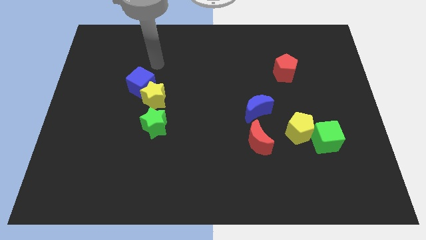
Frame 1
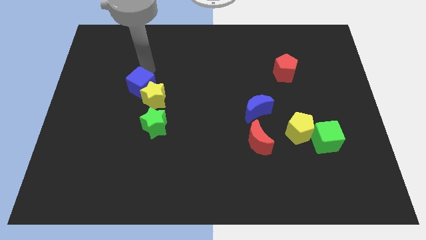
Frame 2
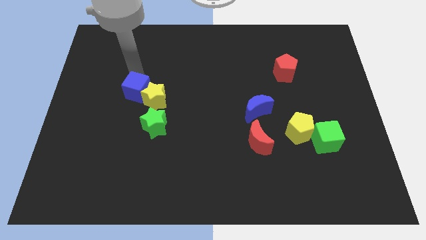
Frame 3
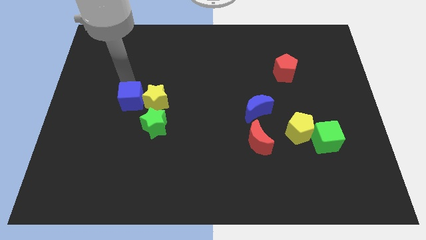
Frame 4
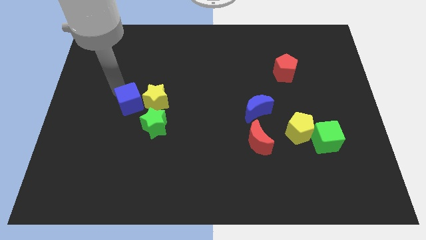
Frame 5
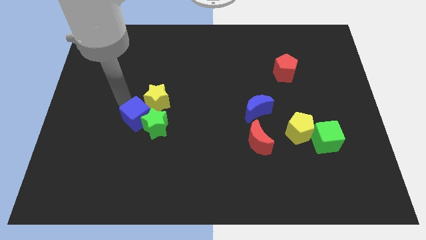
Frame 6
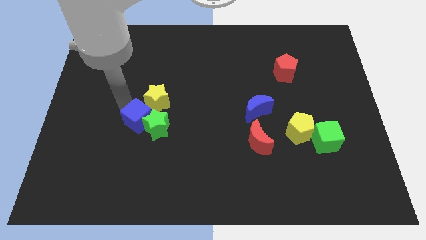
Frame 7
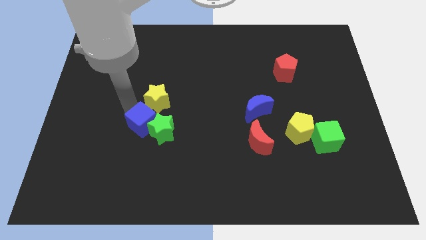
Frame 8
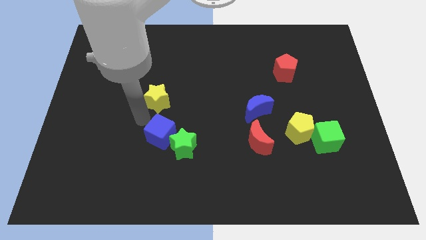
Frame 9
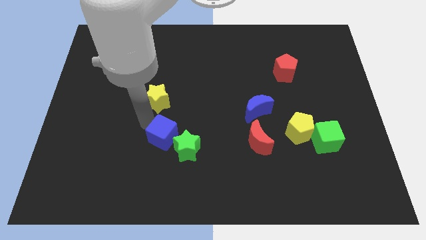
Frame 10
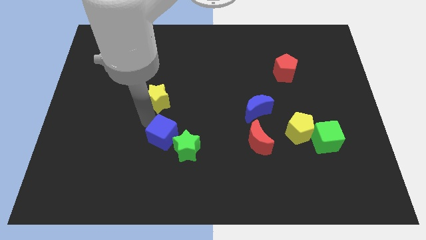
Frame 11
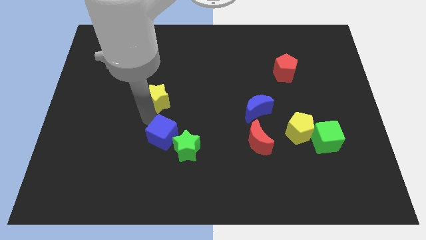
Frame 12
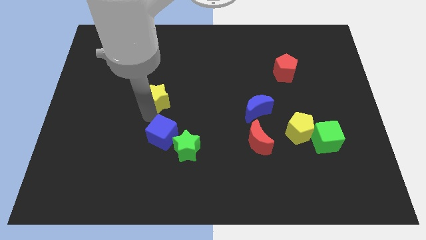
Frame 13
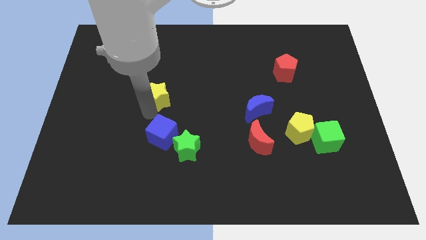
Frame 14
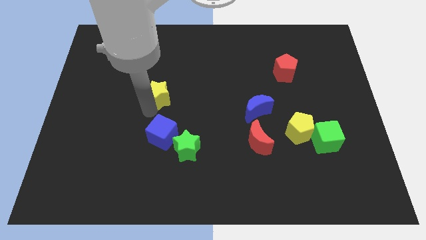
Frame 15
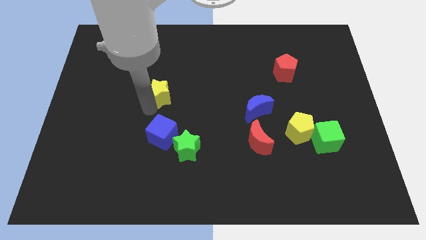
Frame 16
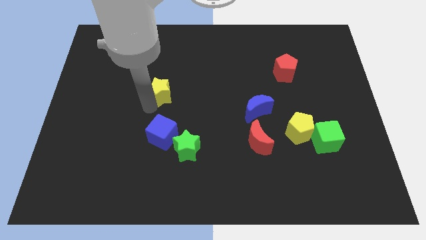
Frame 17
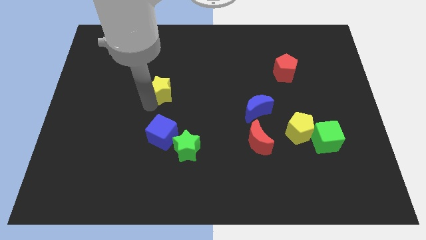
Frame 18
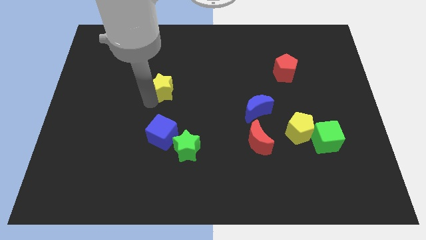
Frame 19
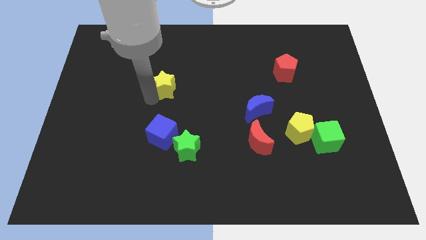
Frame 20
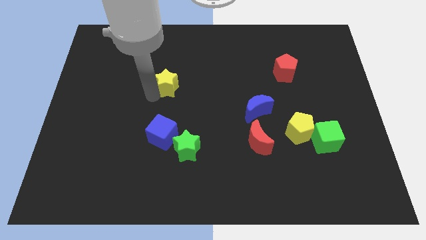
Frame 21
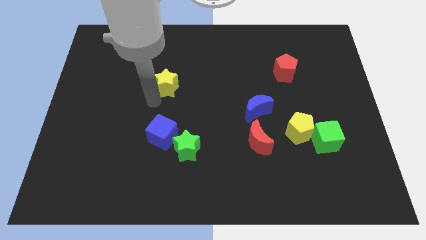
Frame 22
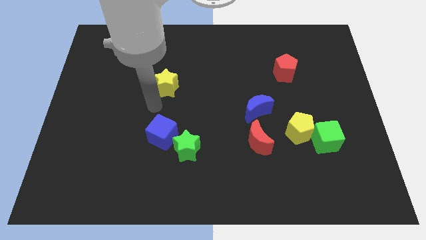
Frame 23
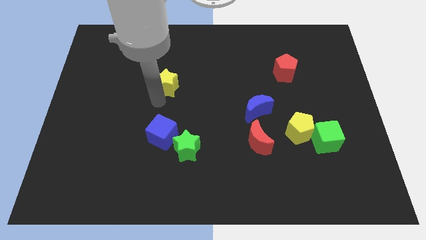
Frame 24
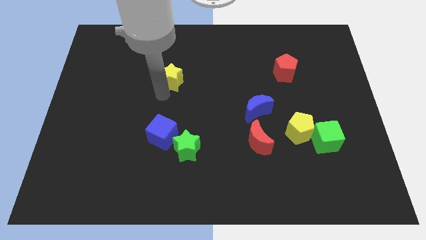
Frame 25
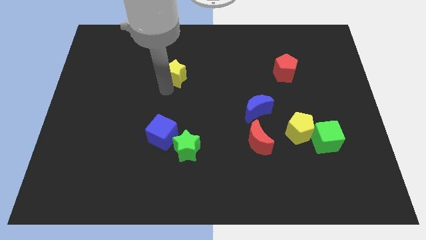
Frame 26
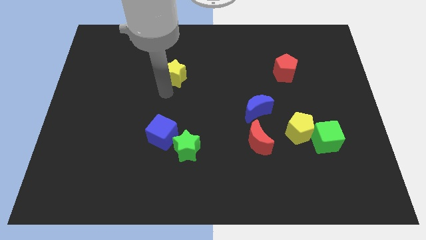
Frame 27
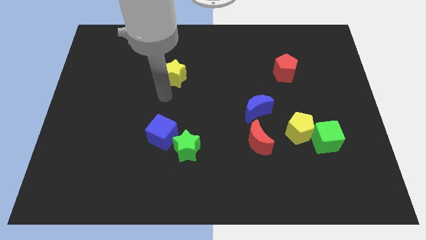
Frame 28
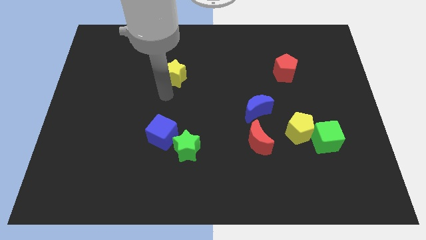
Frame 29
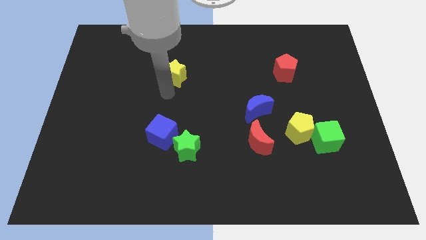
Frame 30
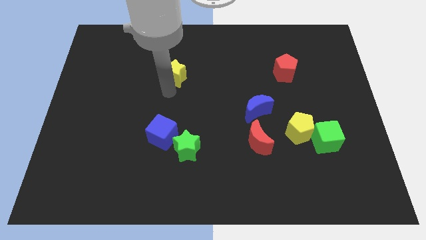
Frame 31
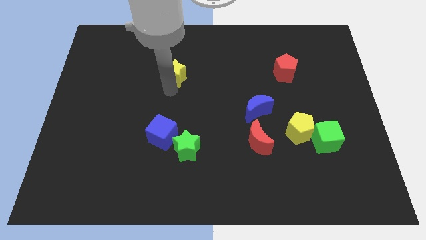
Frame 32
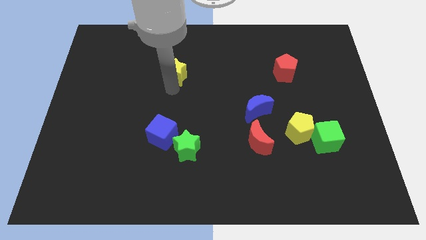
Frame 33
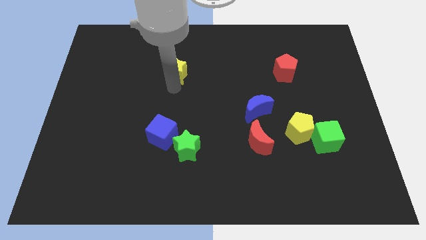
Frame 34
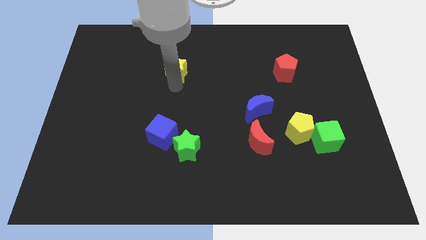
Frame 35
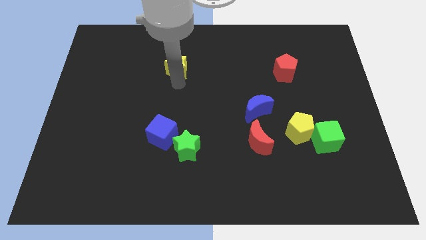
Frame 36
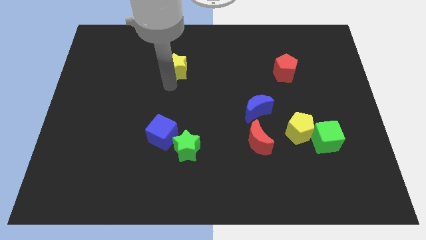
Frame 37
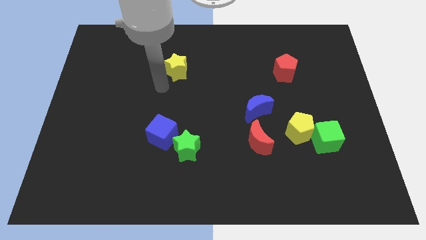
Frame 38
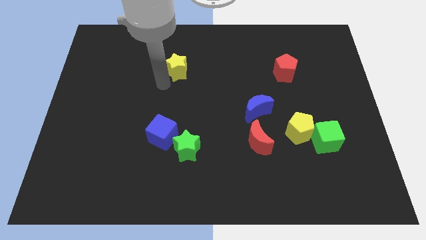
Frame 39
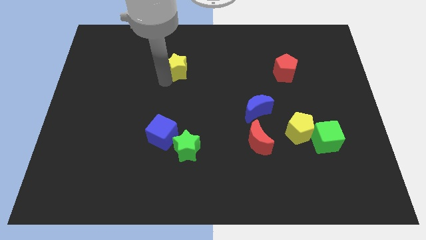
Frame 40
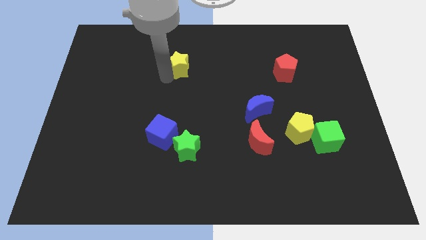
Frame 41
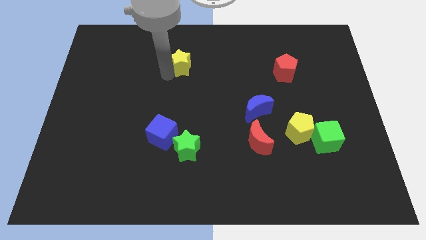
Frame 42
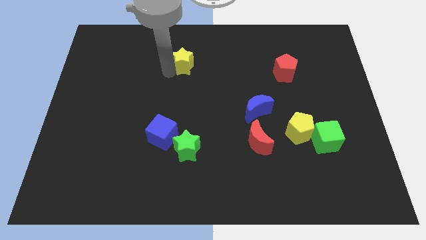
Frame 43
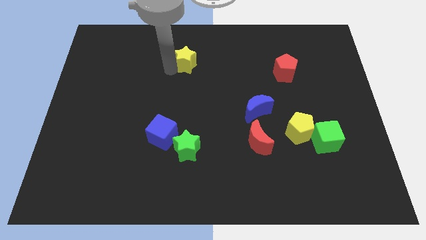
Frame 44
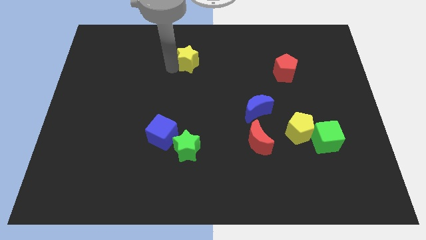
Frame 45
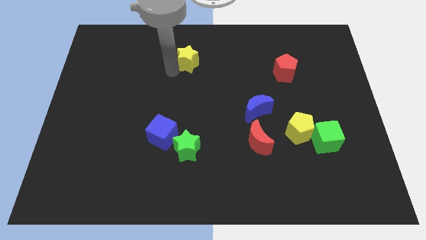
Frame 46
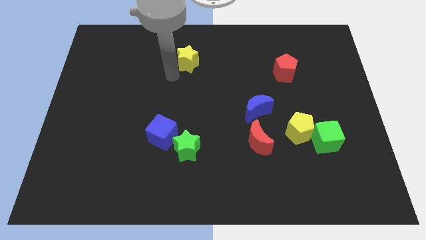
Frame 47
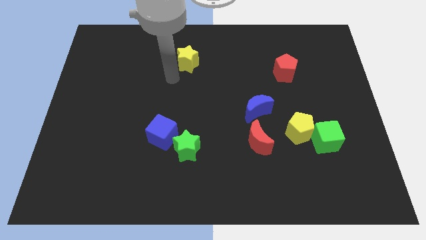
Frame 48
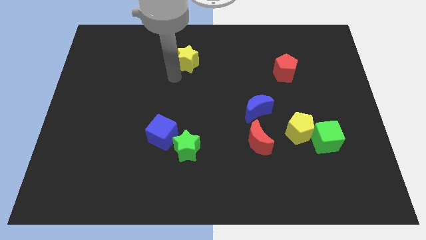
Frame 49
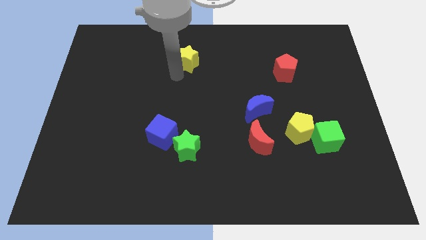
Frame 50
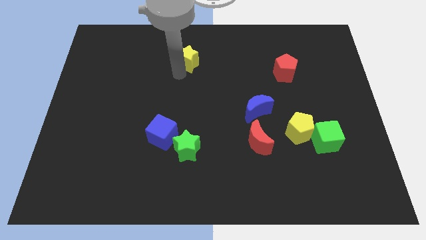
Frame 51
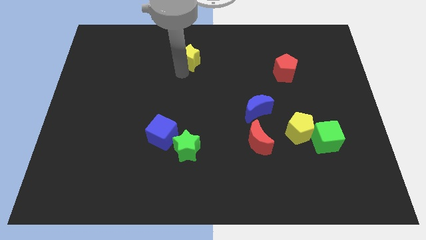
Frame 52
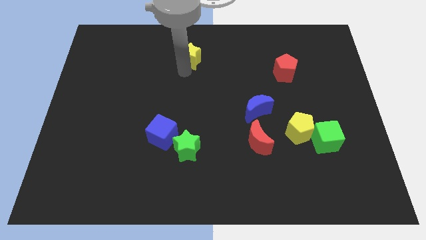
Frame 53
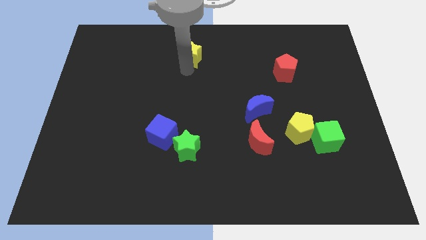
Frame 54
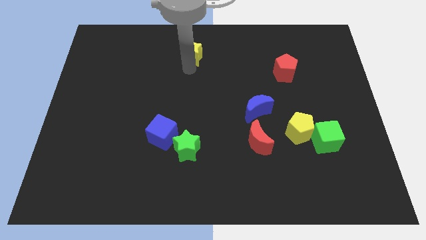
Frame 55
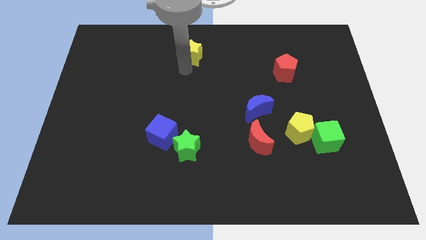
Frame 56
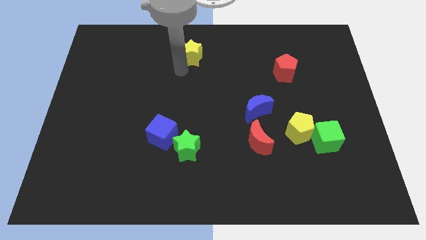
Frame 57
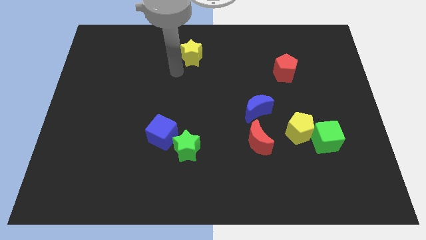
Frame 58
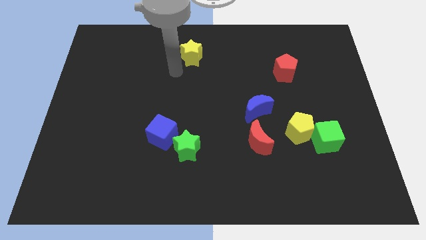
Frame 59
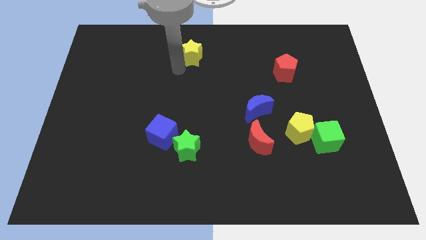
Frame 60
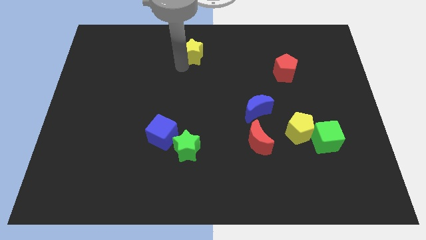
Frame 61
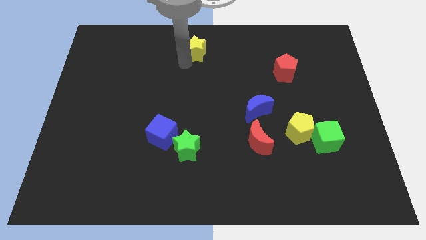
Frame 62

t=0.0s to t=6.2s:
slide the yellow star to the top

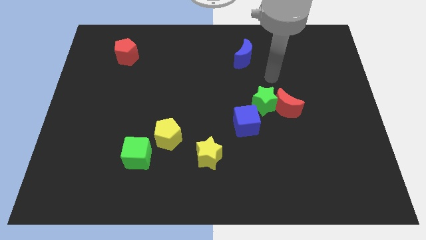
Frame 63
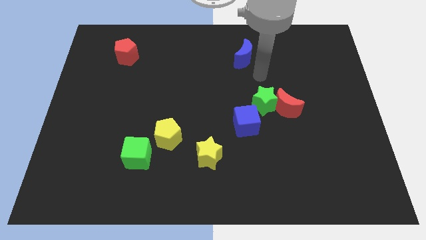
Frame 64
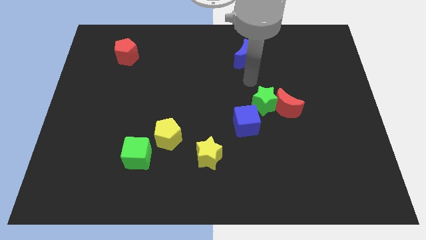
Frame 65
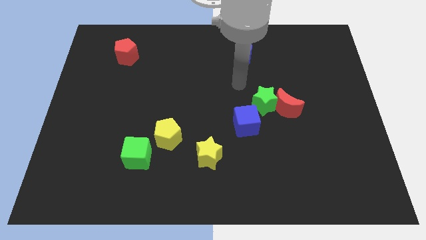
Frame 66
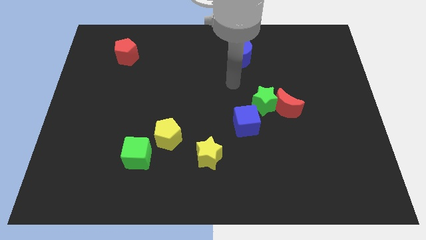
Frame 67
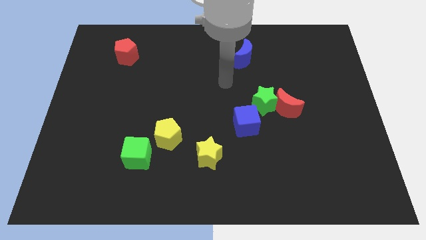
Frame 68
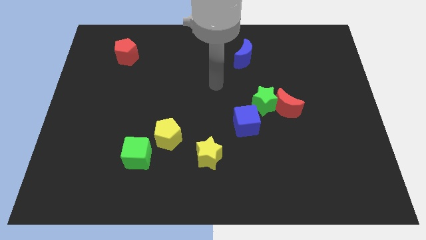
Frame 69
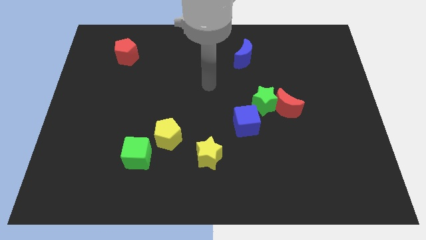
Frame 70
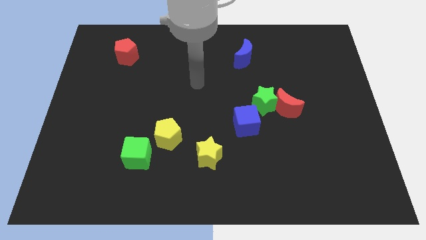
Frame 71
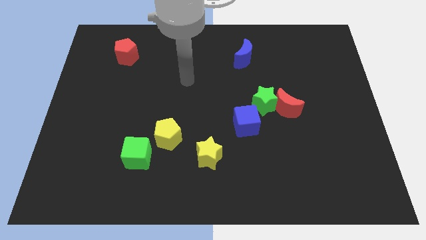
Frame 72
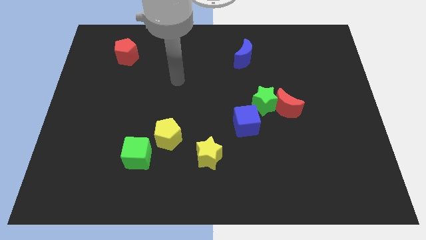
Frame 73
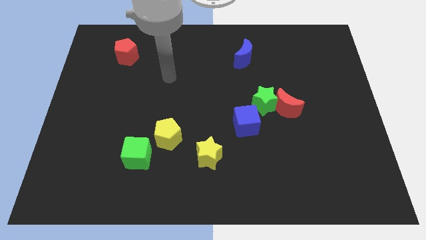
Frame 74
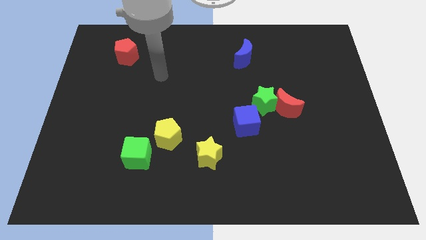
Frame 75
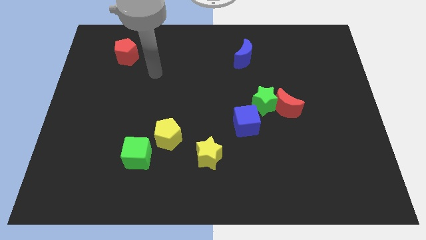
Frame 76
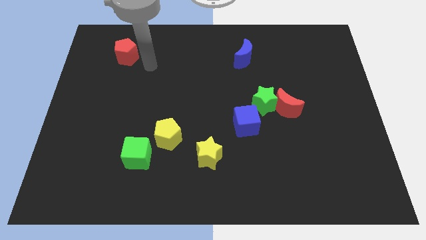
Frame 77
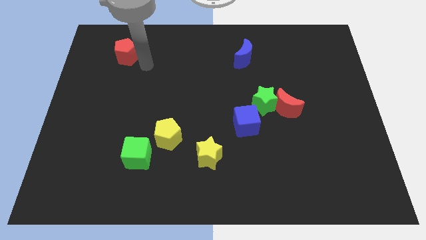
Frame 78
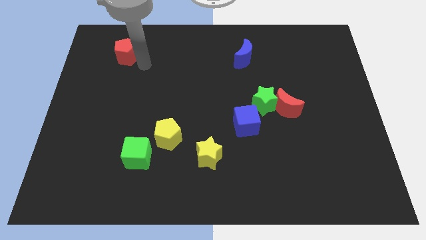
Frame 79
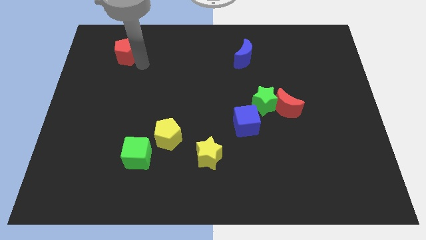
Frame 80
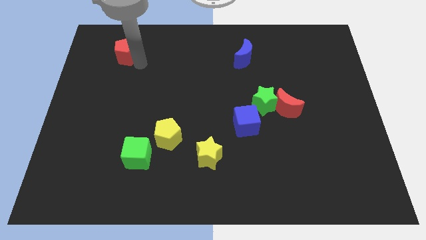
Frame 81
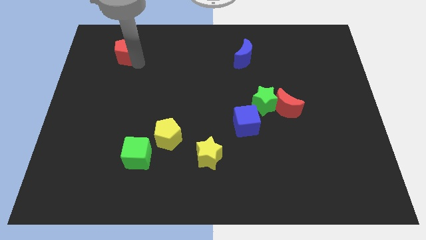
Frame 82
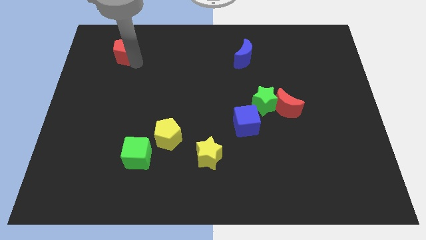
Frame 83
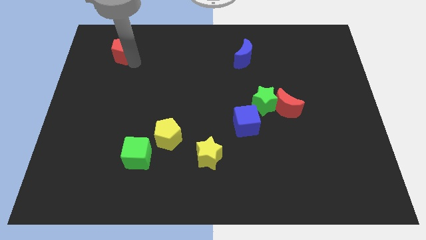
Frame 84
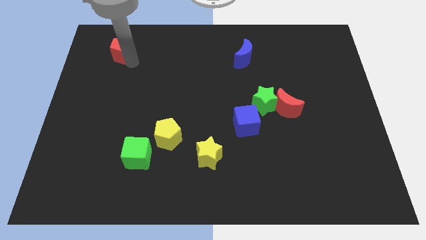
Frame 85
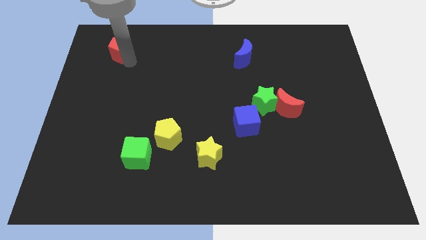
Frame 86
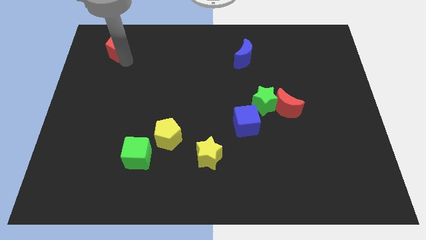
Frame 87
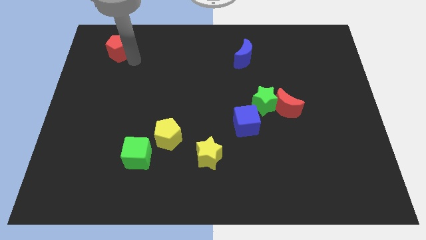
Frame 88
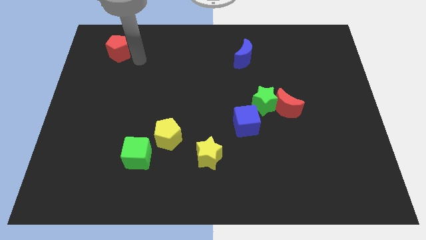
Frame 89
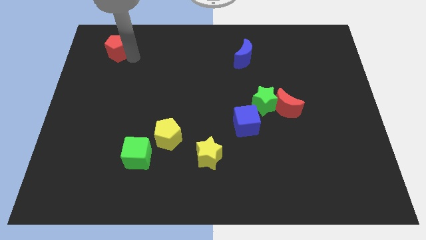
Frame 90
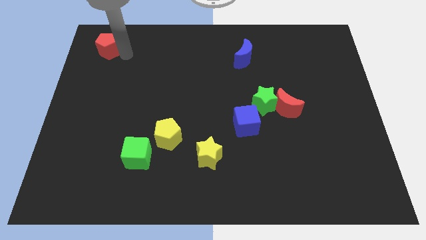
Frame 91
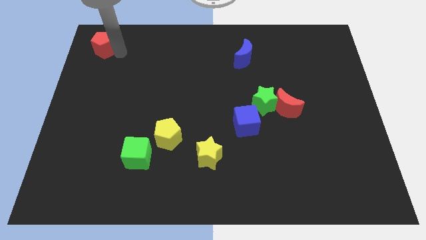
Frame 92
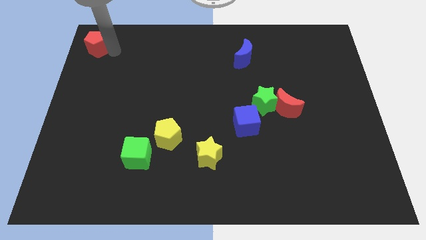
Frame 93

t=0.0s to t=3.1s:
push the red pentagon to the top left of the board
